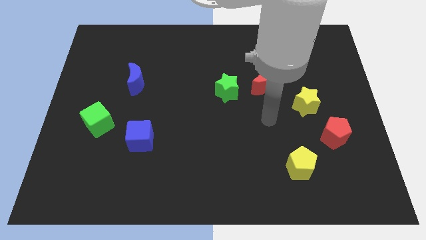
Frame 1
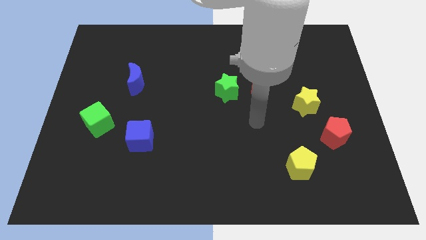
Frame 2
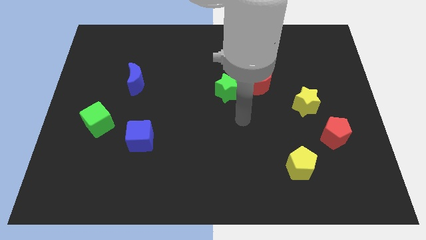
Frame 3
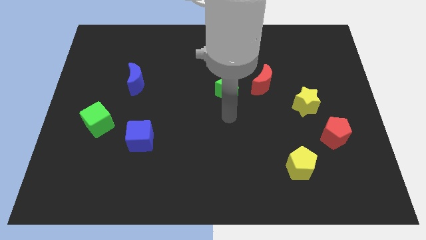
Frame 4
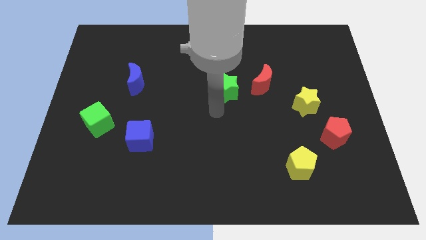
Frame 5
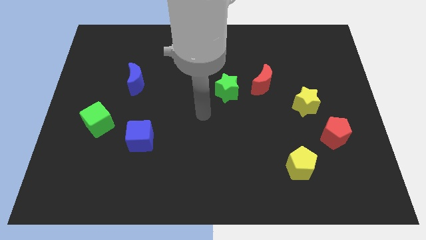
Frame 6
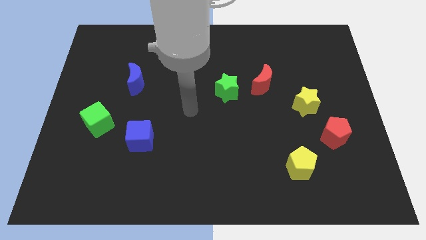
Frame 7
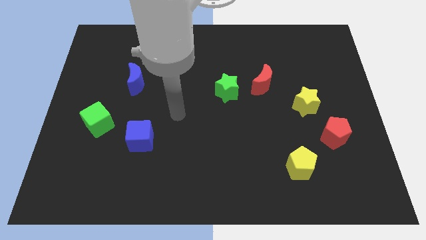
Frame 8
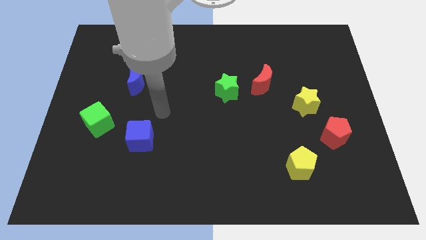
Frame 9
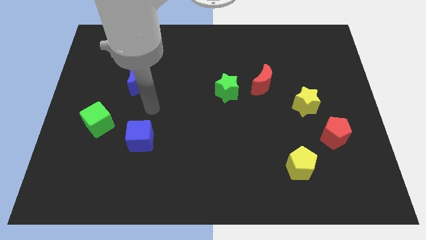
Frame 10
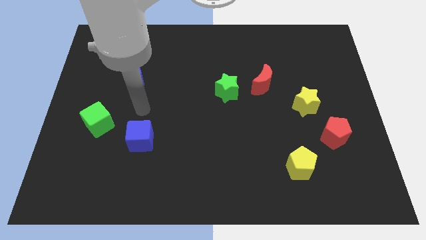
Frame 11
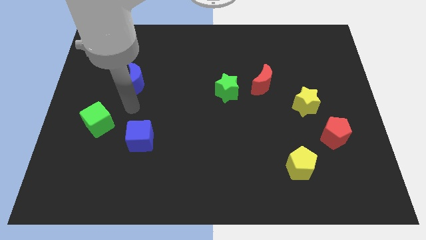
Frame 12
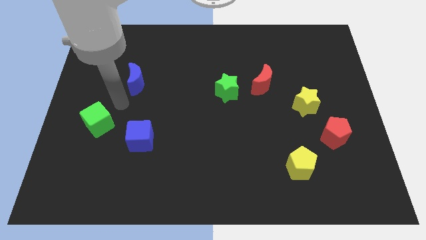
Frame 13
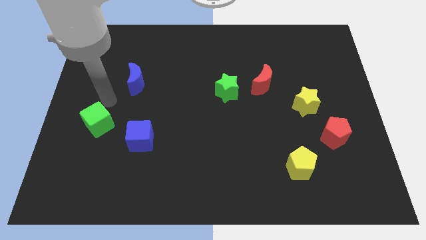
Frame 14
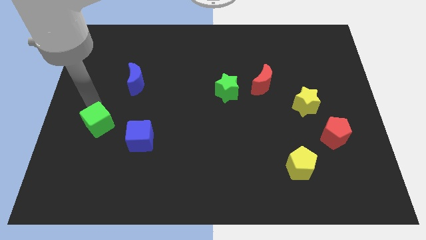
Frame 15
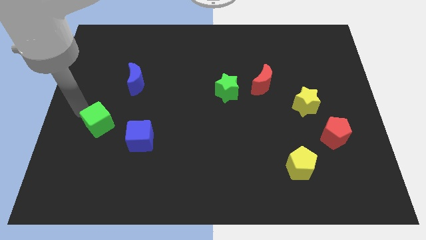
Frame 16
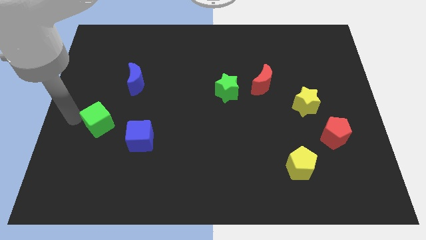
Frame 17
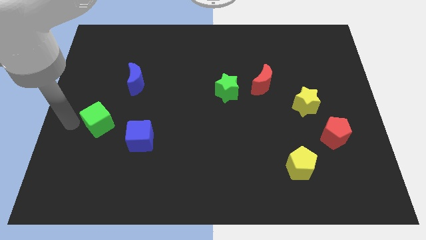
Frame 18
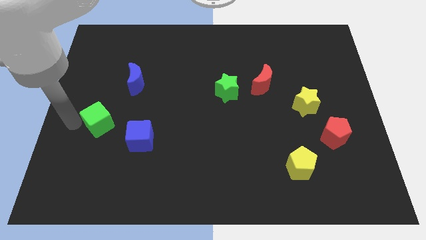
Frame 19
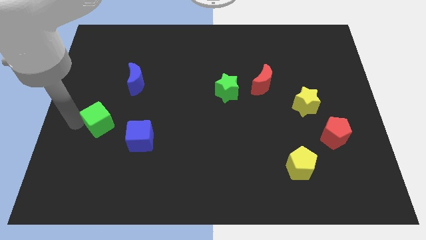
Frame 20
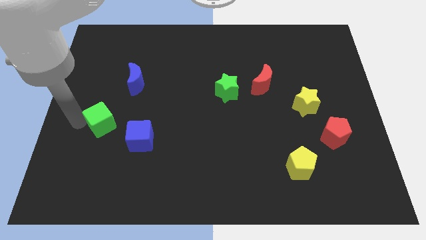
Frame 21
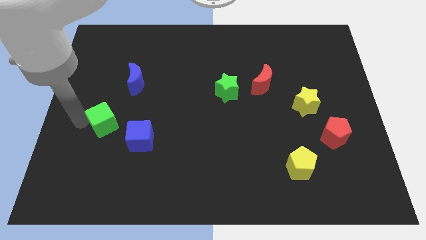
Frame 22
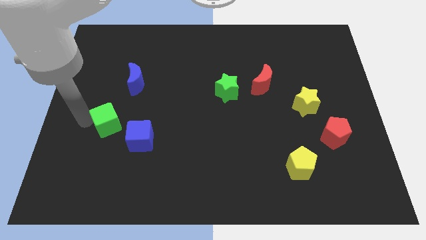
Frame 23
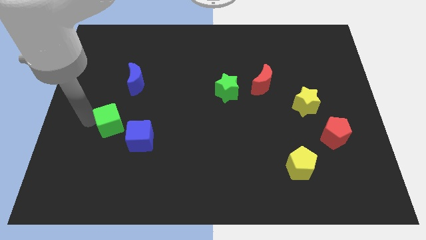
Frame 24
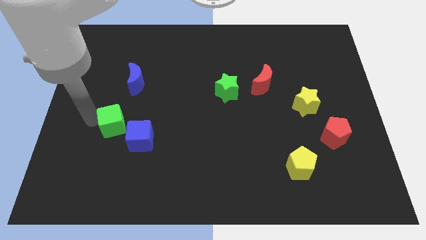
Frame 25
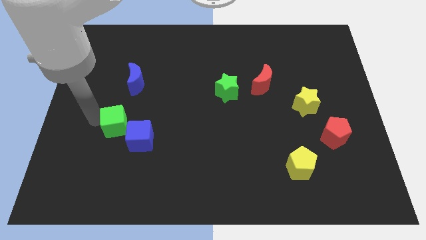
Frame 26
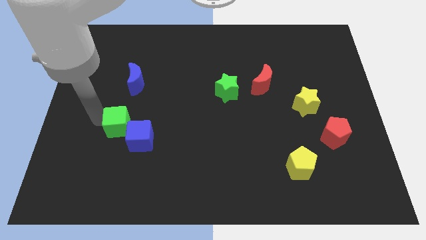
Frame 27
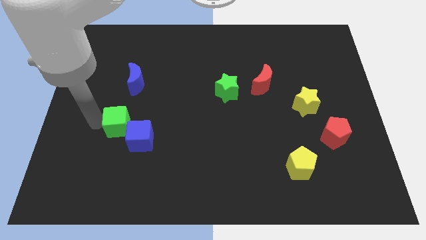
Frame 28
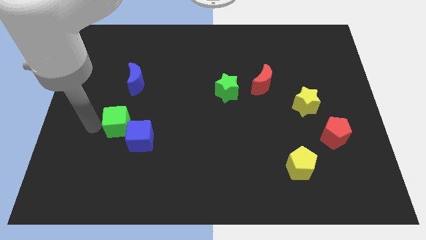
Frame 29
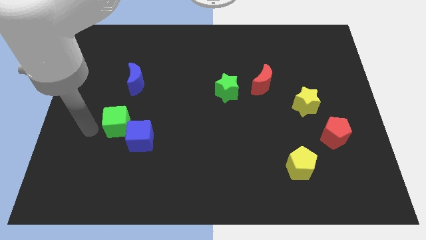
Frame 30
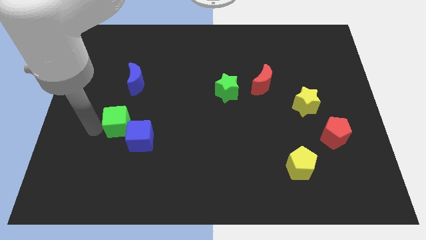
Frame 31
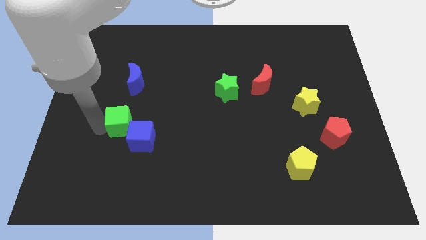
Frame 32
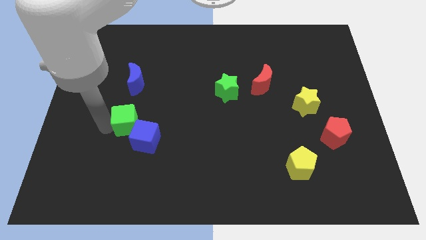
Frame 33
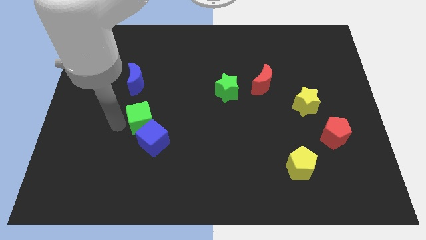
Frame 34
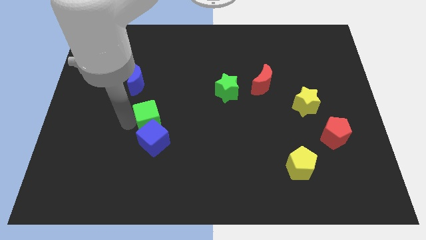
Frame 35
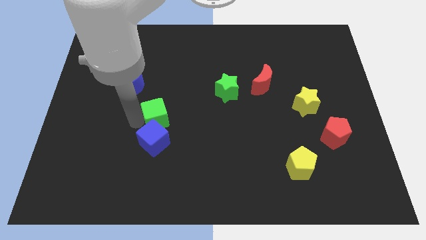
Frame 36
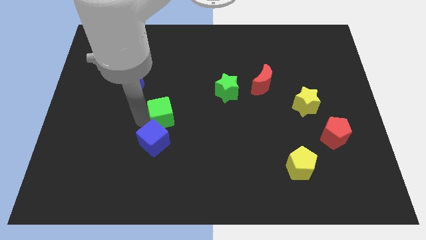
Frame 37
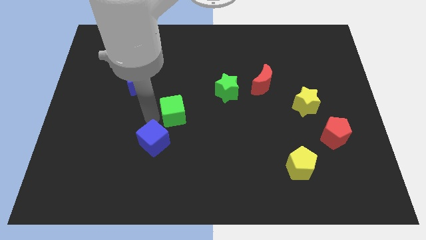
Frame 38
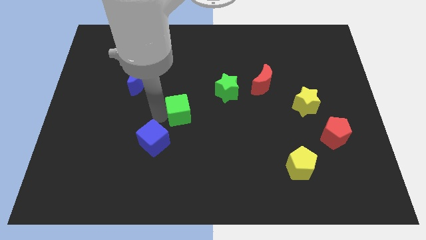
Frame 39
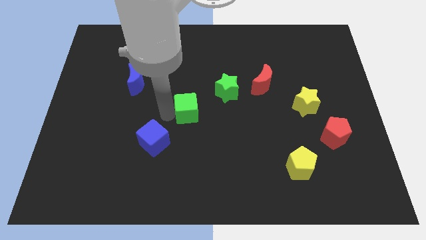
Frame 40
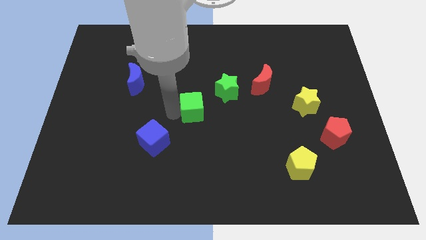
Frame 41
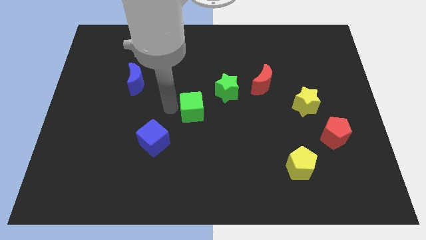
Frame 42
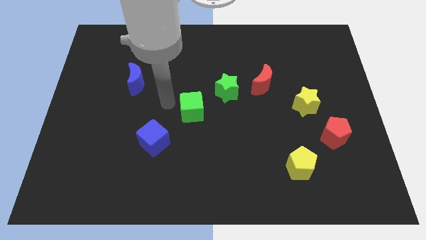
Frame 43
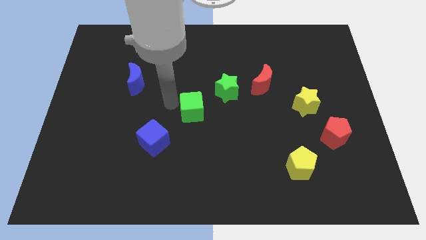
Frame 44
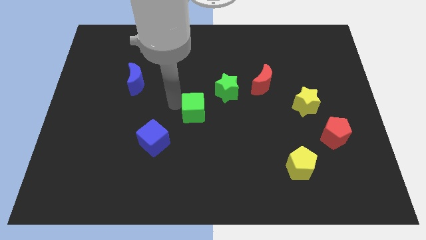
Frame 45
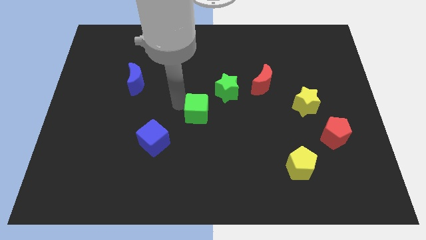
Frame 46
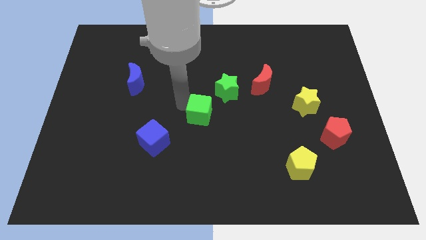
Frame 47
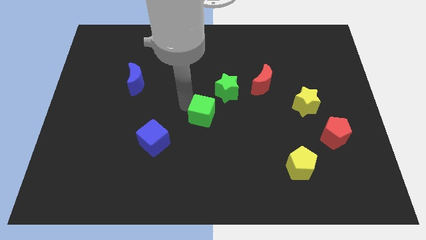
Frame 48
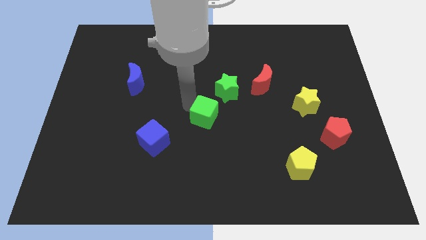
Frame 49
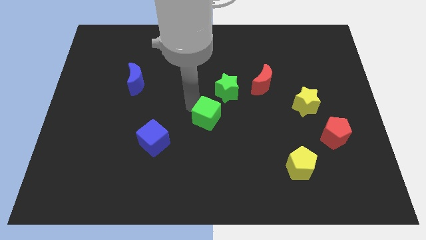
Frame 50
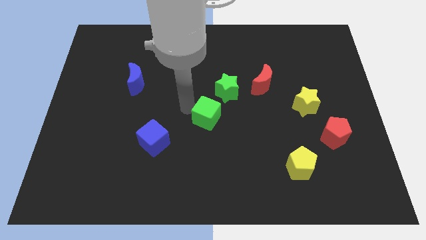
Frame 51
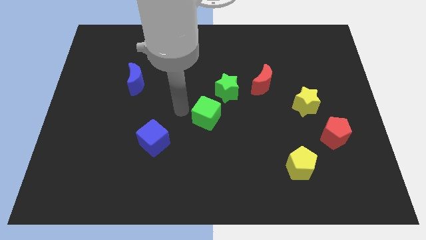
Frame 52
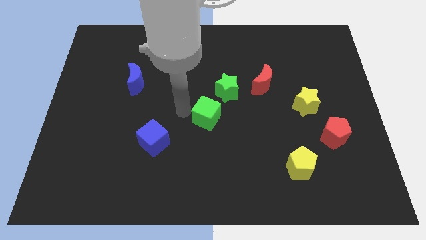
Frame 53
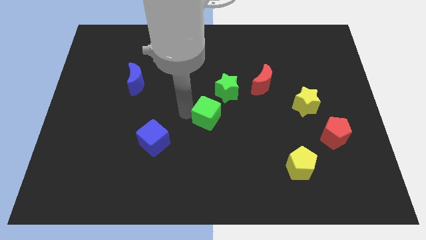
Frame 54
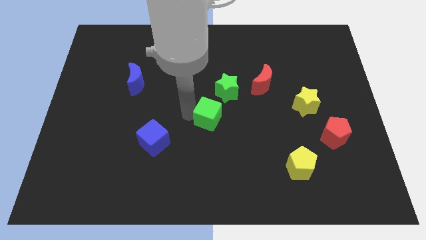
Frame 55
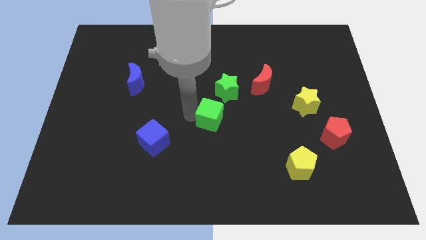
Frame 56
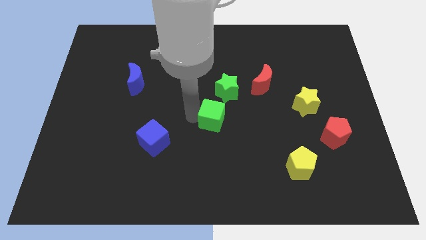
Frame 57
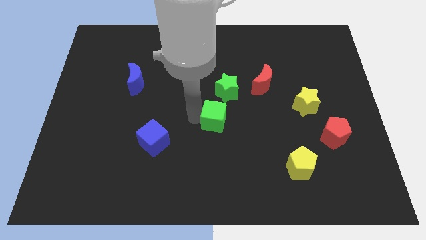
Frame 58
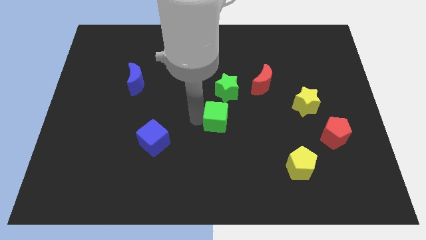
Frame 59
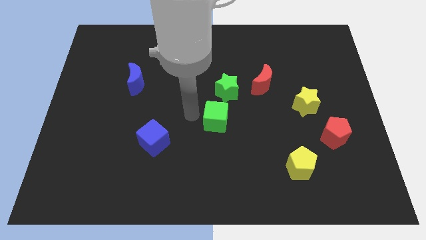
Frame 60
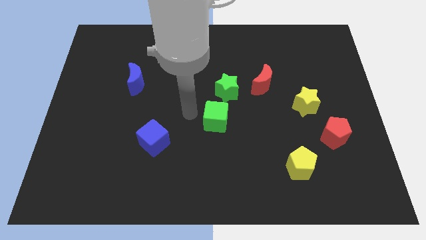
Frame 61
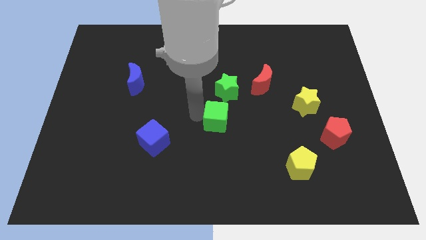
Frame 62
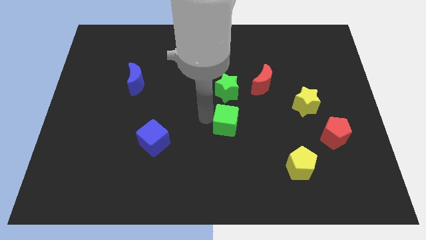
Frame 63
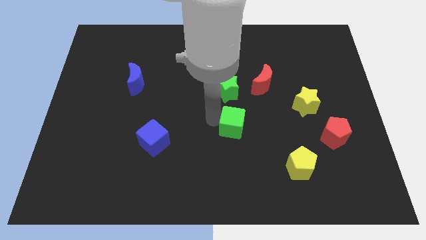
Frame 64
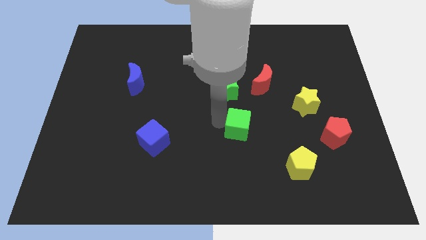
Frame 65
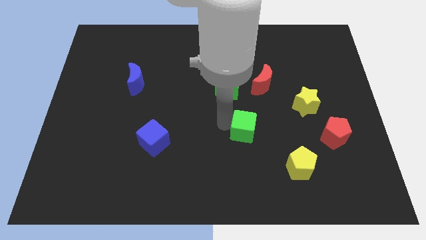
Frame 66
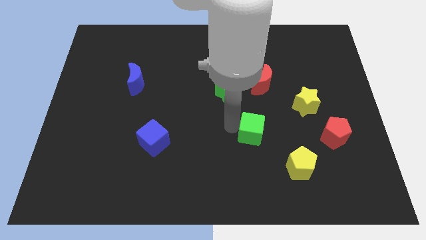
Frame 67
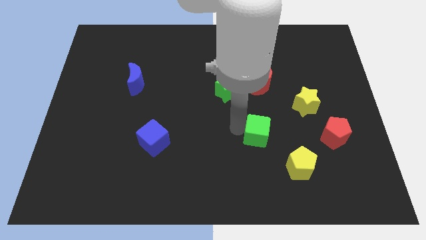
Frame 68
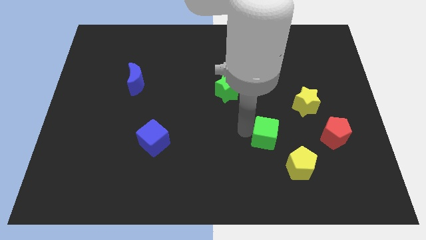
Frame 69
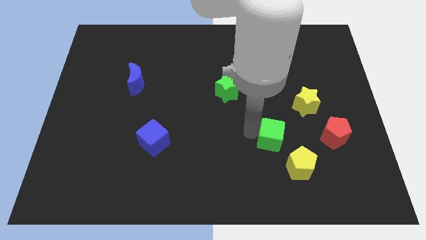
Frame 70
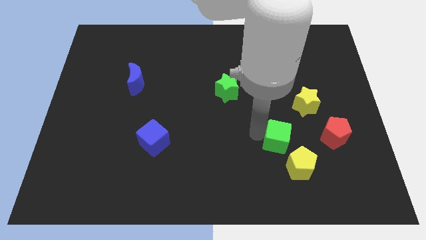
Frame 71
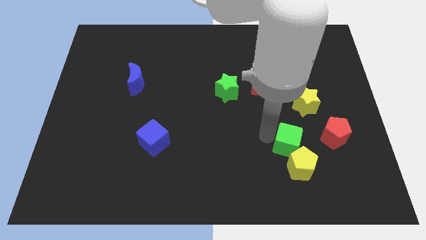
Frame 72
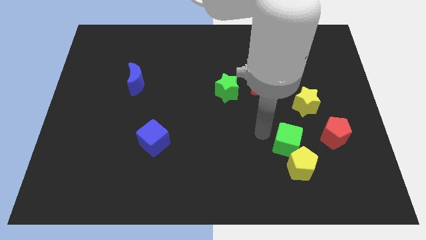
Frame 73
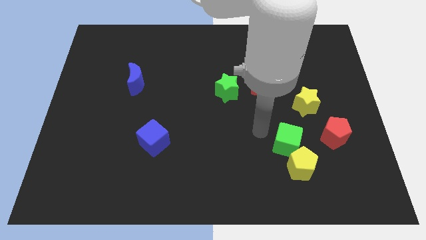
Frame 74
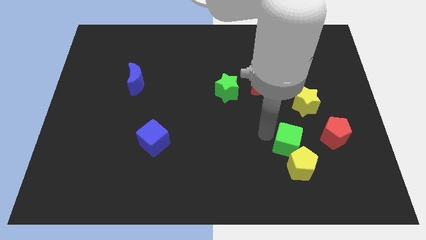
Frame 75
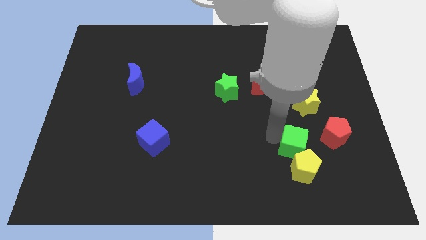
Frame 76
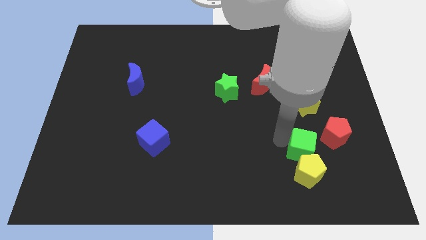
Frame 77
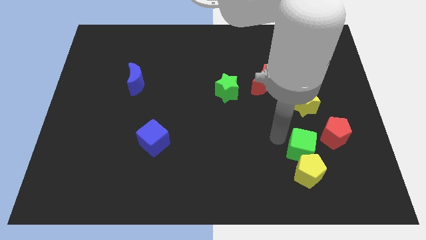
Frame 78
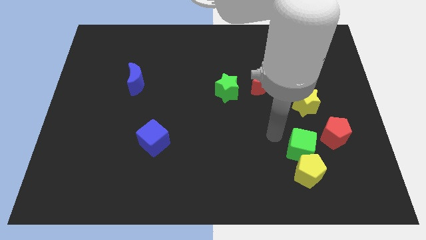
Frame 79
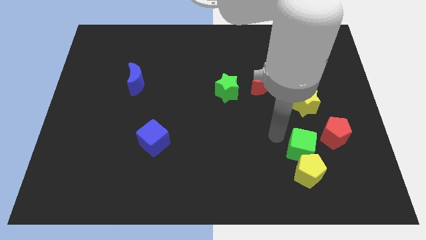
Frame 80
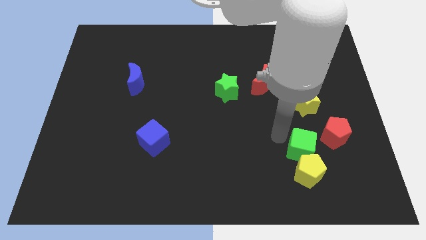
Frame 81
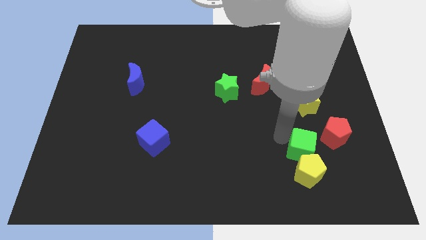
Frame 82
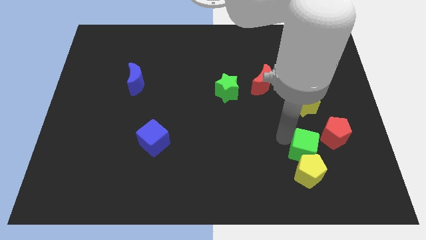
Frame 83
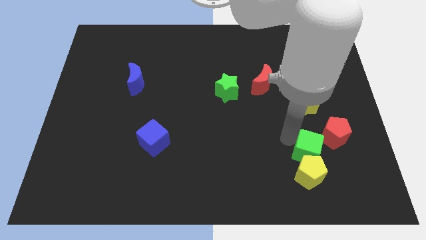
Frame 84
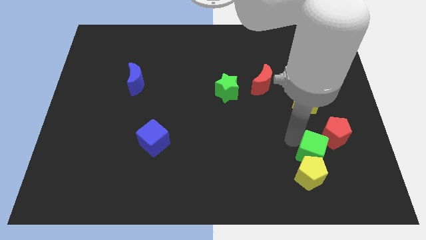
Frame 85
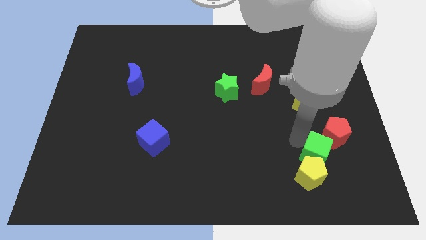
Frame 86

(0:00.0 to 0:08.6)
slide the green cube to the bottom side of the red pentagon
